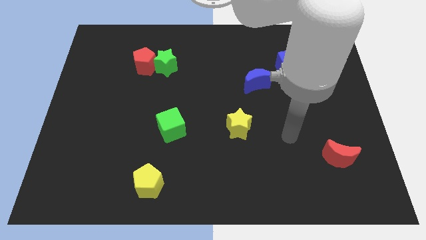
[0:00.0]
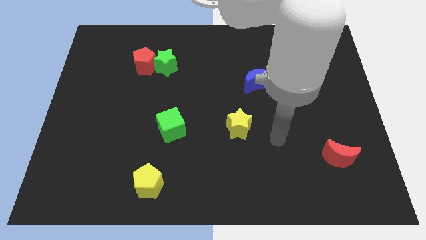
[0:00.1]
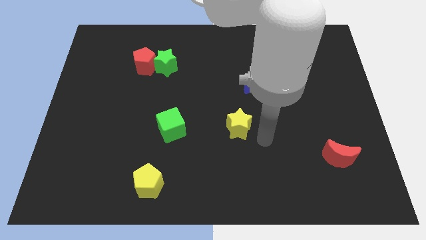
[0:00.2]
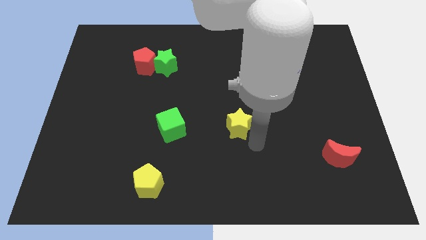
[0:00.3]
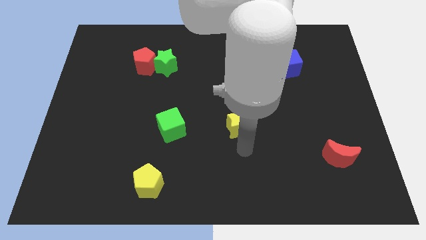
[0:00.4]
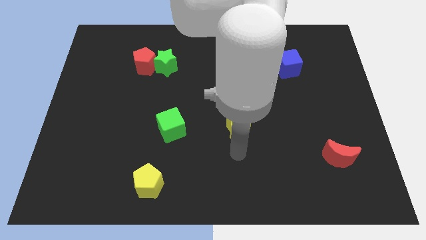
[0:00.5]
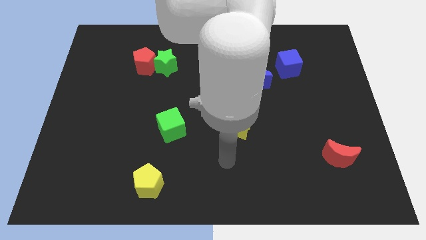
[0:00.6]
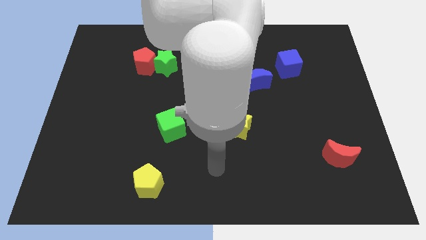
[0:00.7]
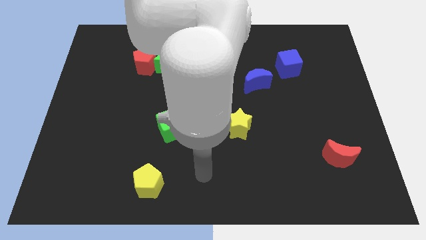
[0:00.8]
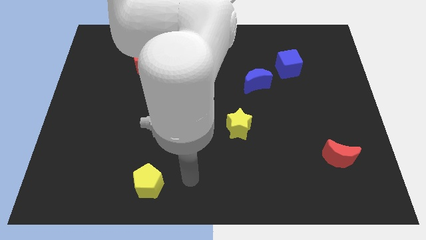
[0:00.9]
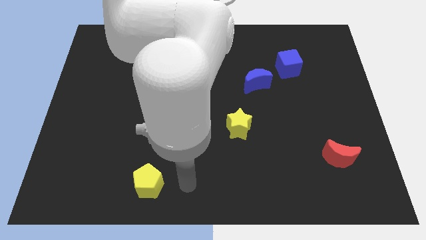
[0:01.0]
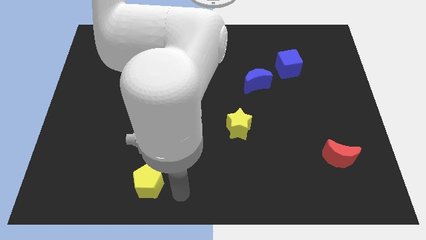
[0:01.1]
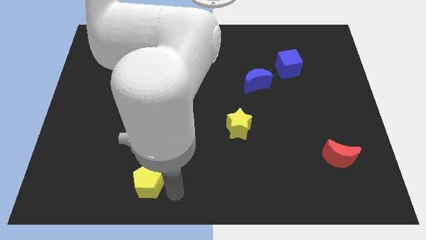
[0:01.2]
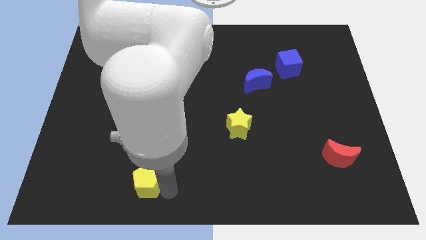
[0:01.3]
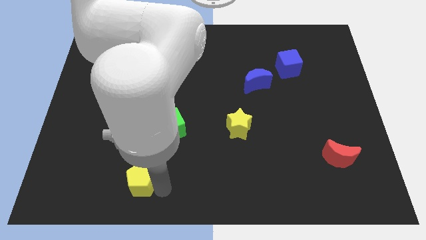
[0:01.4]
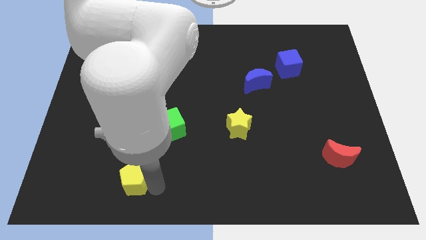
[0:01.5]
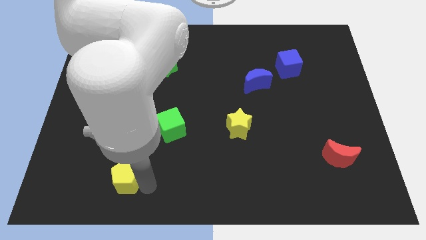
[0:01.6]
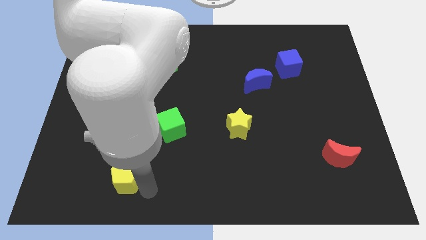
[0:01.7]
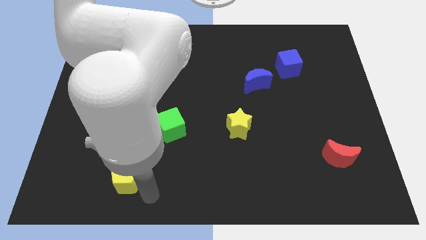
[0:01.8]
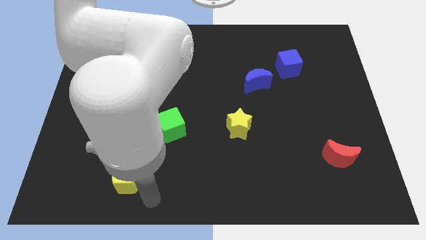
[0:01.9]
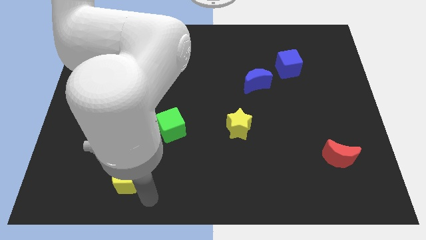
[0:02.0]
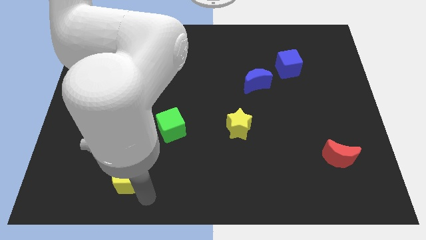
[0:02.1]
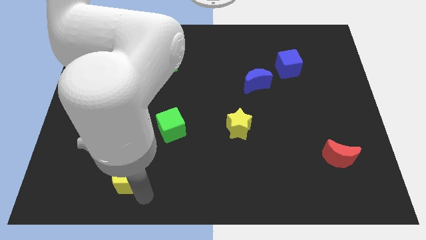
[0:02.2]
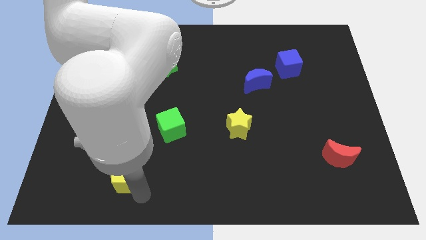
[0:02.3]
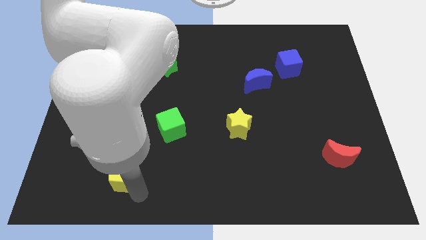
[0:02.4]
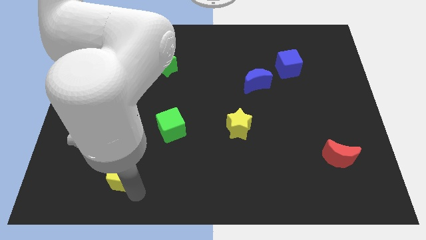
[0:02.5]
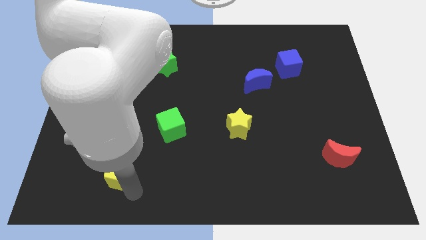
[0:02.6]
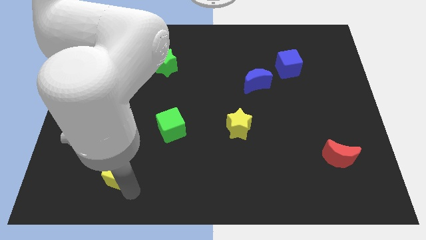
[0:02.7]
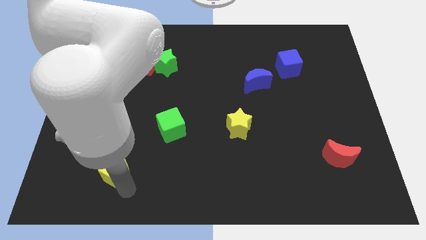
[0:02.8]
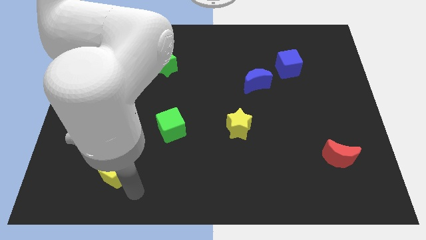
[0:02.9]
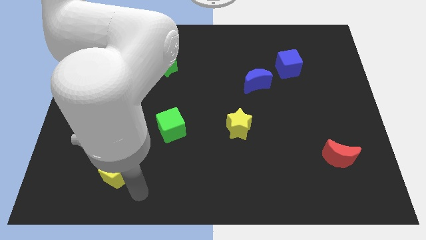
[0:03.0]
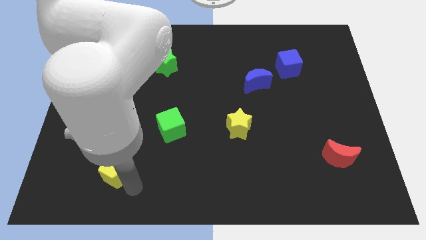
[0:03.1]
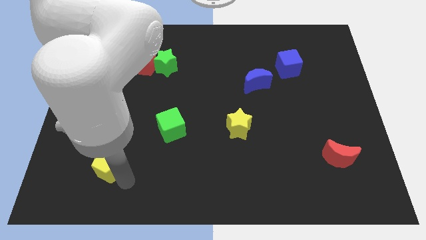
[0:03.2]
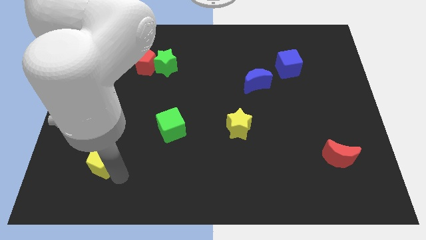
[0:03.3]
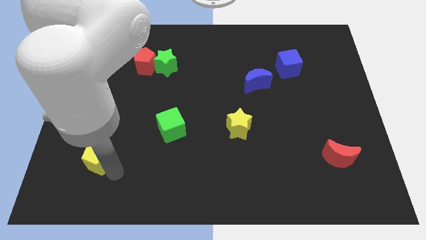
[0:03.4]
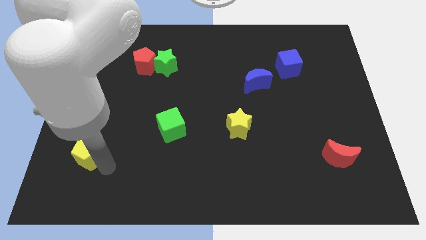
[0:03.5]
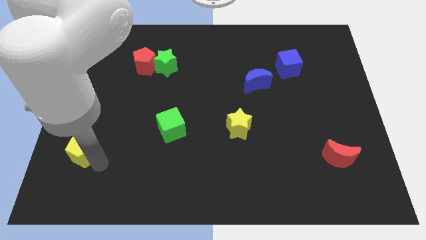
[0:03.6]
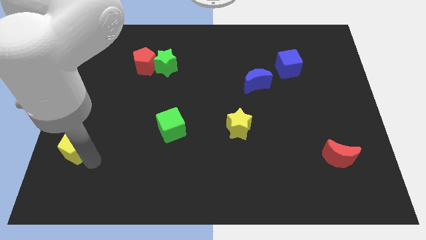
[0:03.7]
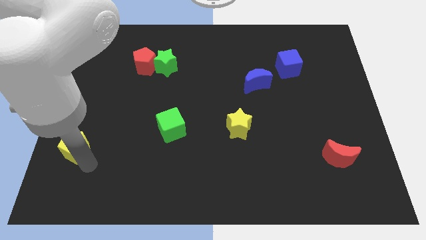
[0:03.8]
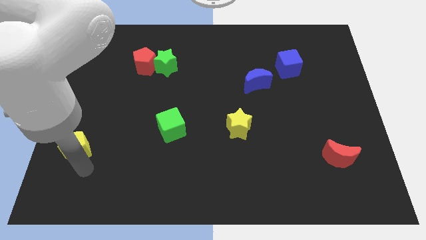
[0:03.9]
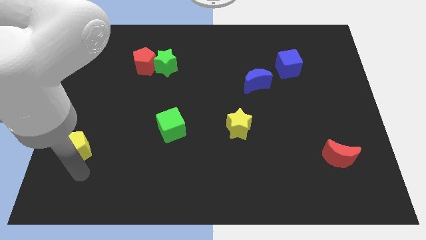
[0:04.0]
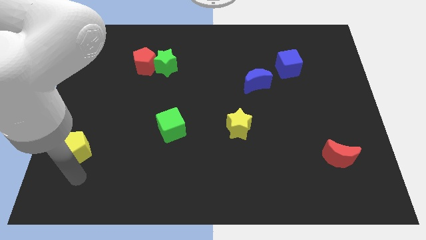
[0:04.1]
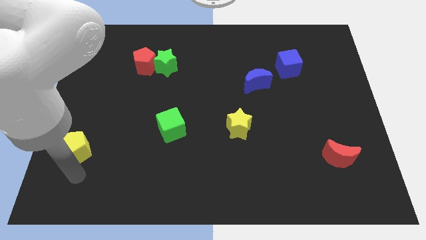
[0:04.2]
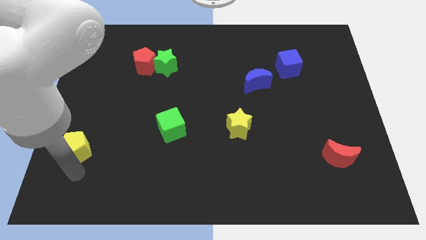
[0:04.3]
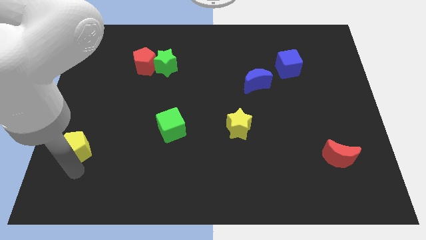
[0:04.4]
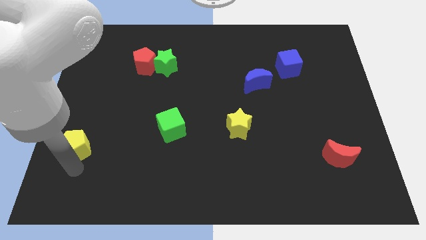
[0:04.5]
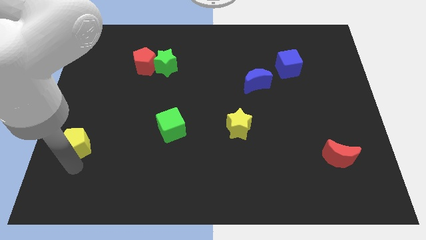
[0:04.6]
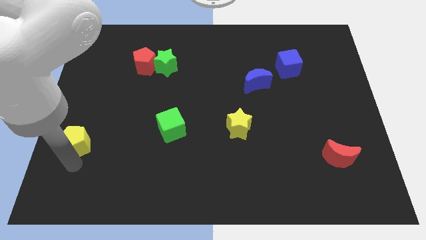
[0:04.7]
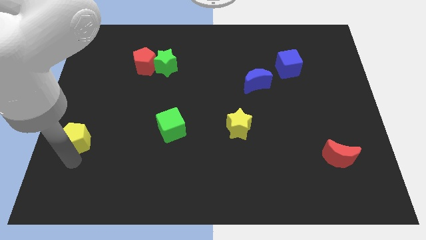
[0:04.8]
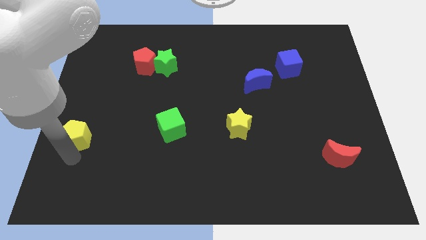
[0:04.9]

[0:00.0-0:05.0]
put the yellow pentagon to the left side of the board

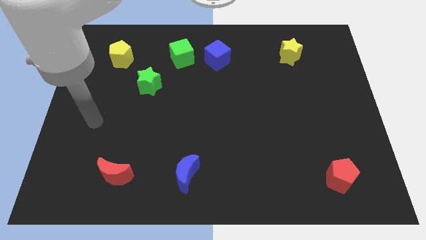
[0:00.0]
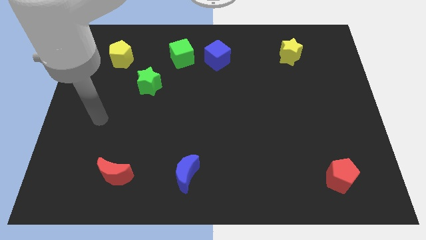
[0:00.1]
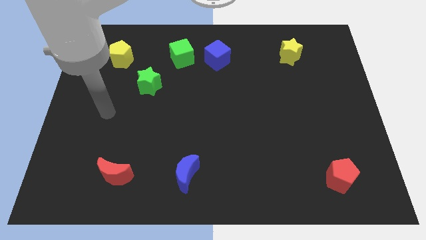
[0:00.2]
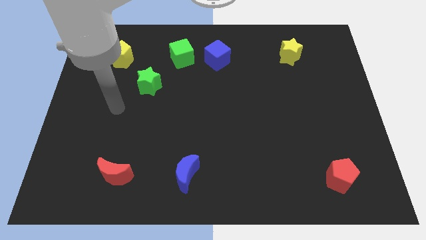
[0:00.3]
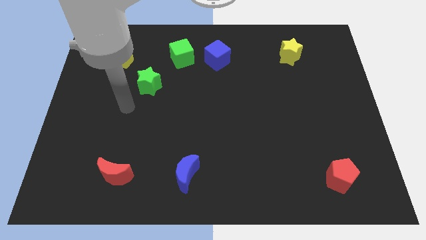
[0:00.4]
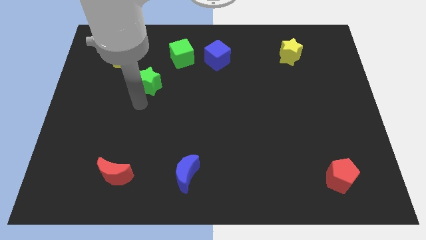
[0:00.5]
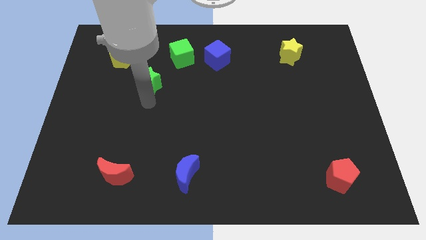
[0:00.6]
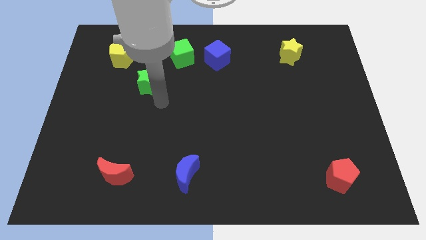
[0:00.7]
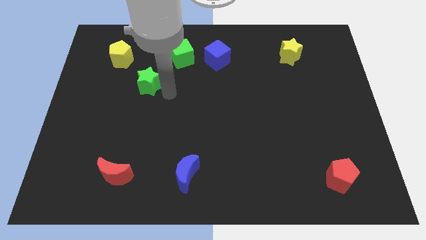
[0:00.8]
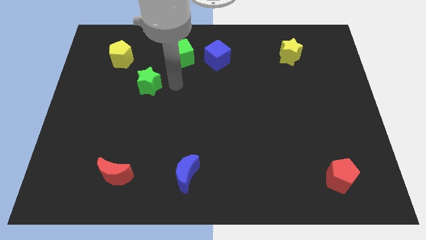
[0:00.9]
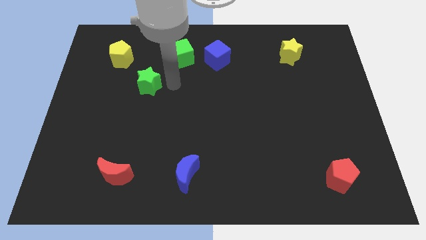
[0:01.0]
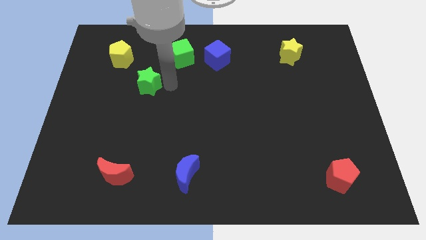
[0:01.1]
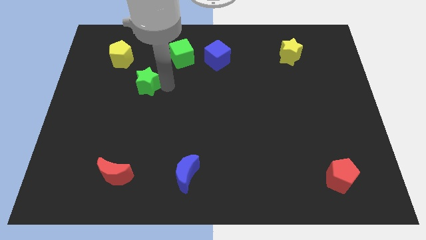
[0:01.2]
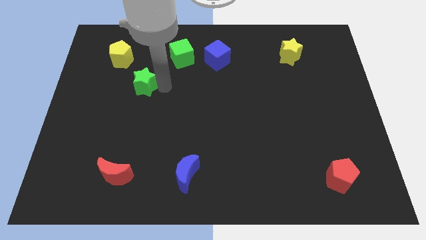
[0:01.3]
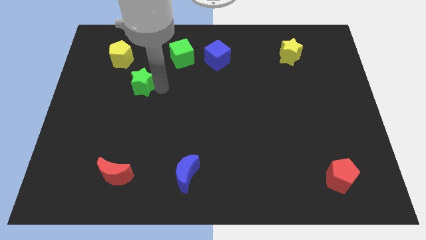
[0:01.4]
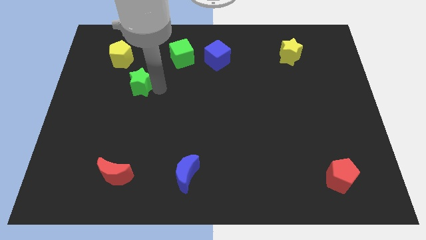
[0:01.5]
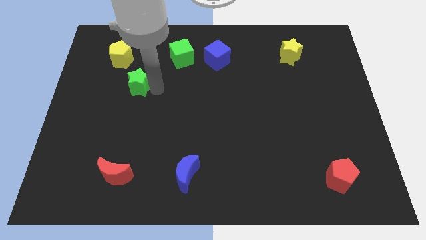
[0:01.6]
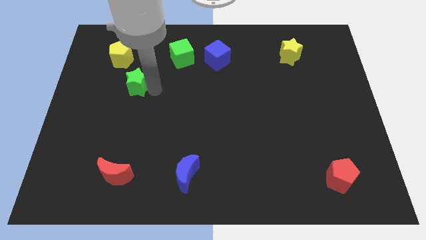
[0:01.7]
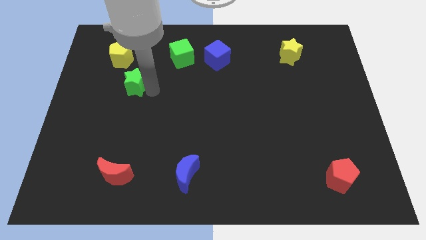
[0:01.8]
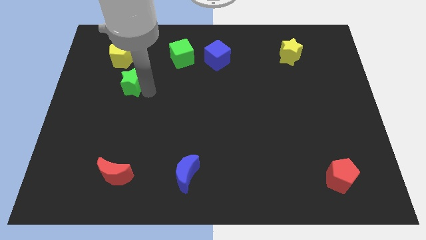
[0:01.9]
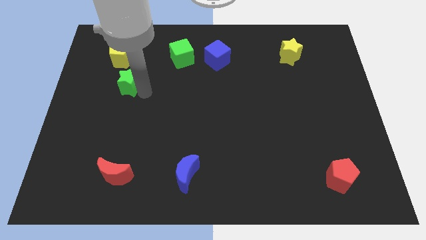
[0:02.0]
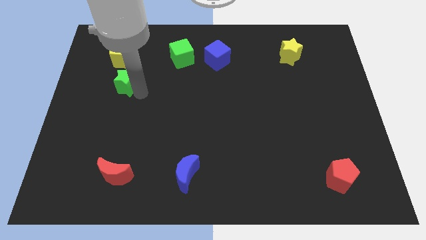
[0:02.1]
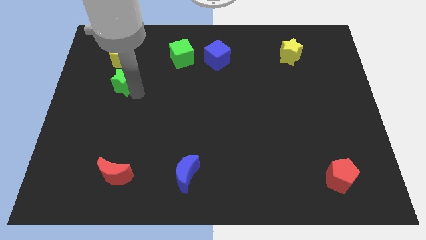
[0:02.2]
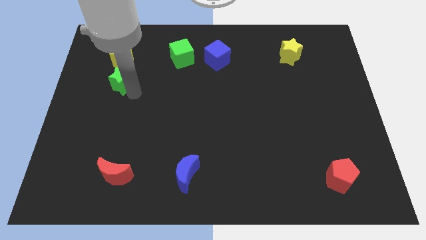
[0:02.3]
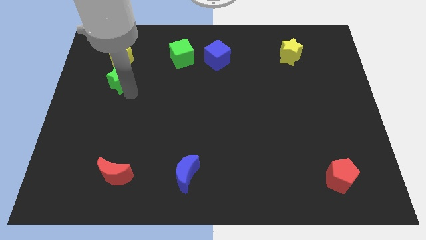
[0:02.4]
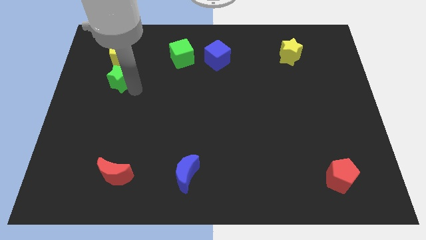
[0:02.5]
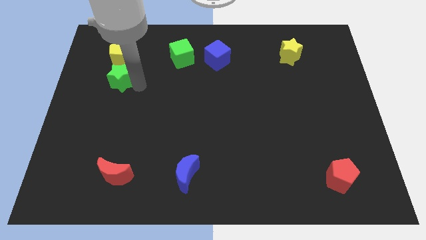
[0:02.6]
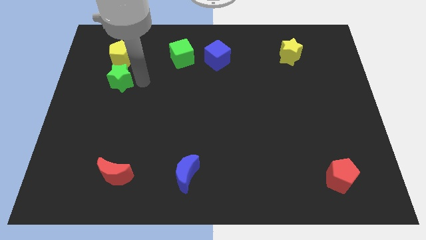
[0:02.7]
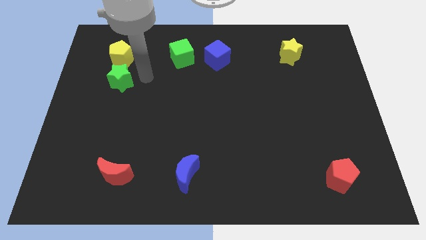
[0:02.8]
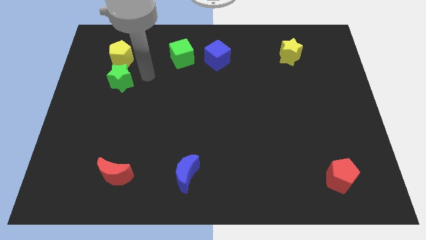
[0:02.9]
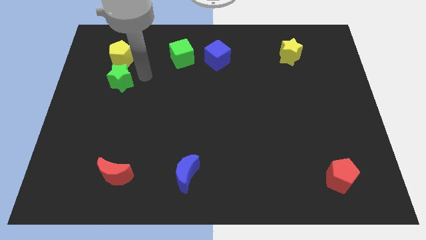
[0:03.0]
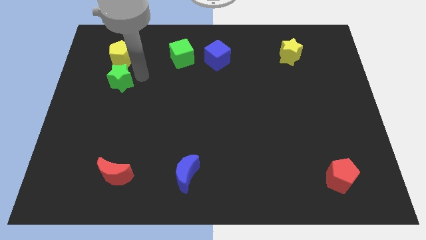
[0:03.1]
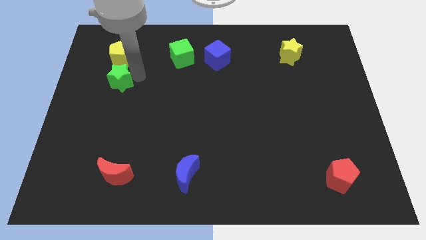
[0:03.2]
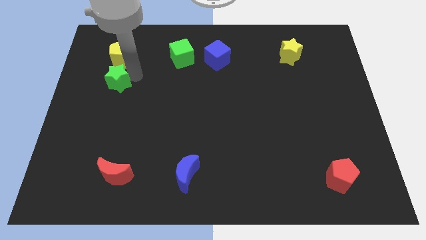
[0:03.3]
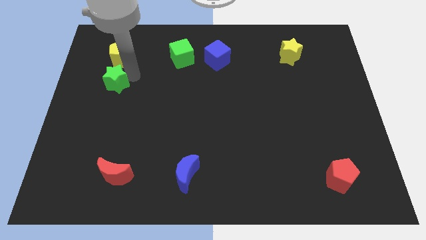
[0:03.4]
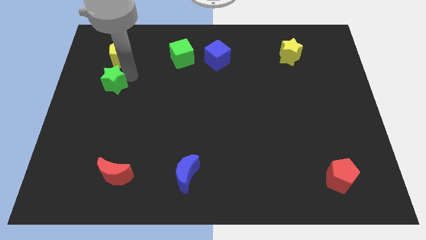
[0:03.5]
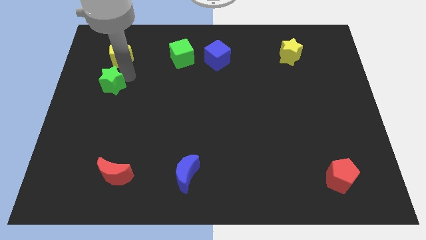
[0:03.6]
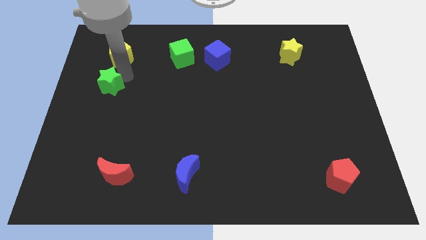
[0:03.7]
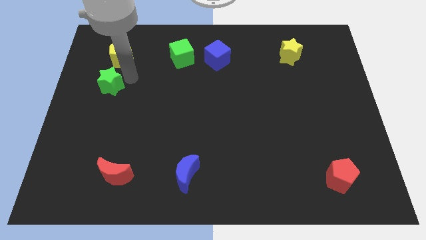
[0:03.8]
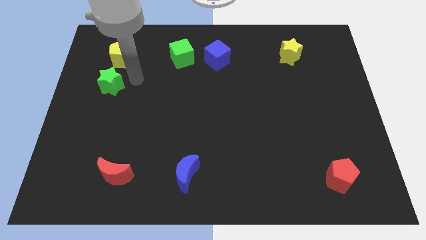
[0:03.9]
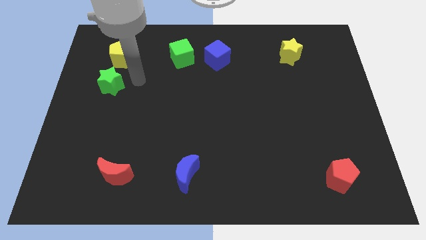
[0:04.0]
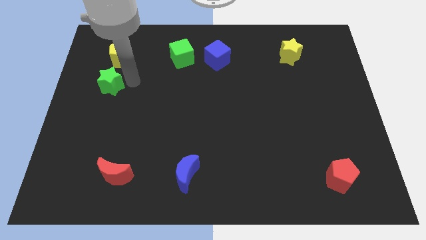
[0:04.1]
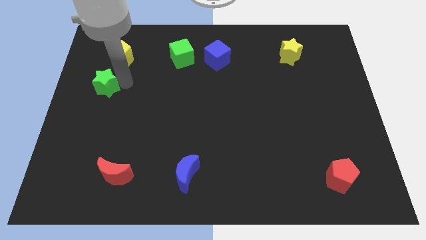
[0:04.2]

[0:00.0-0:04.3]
slide the green star to the center left
